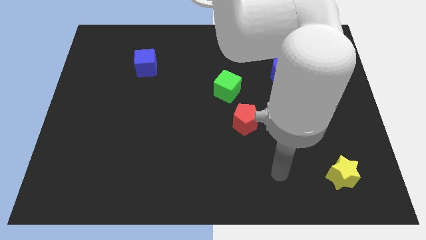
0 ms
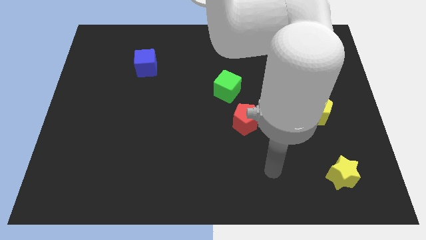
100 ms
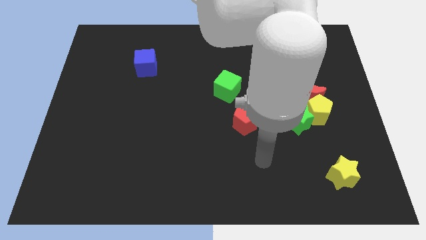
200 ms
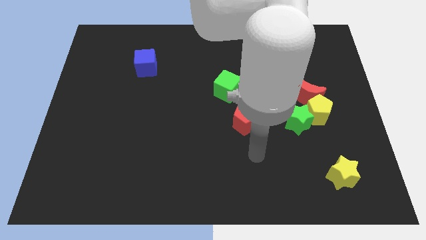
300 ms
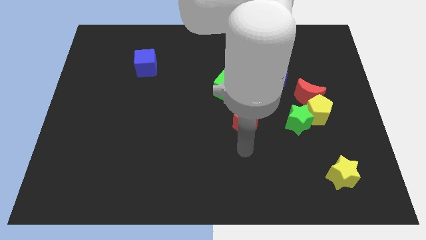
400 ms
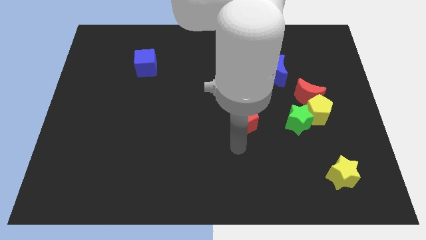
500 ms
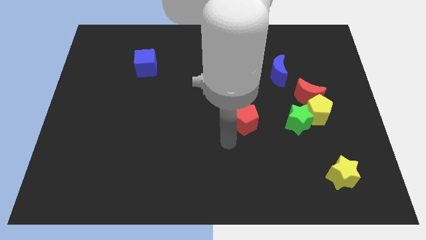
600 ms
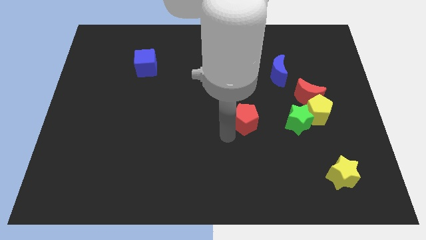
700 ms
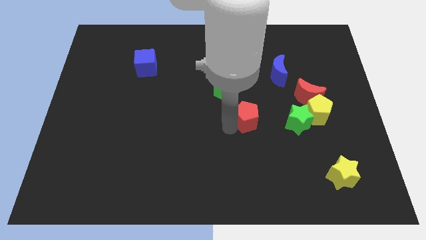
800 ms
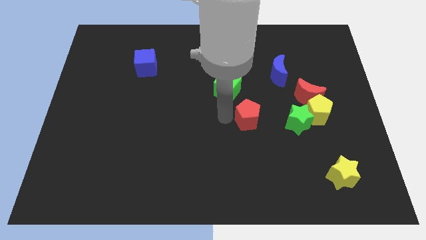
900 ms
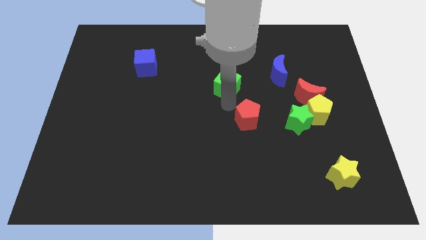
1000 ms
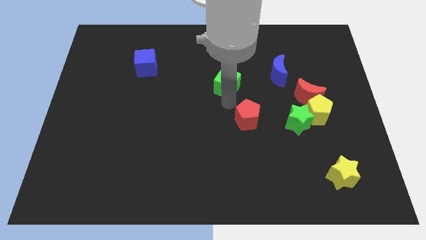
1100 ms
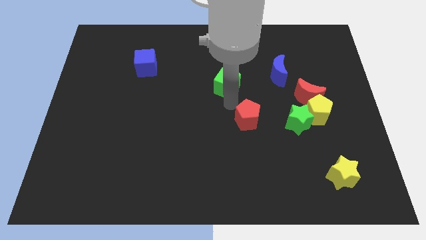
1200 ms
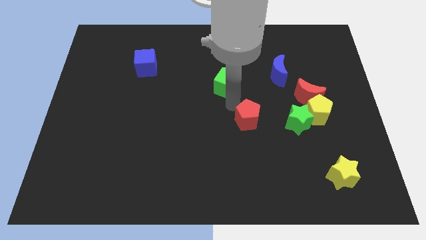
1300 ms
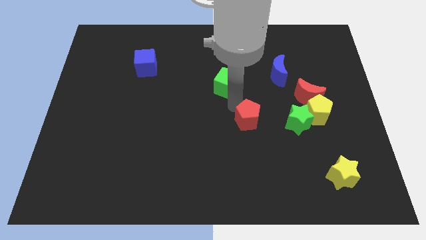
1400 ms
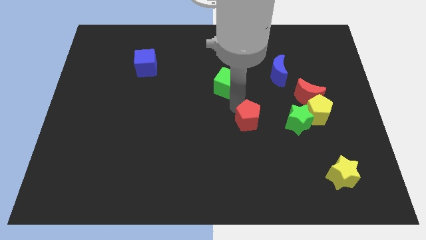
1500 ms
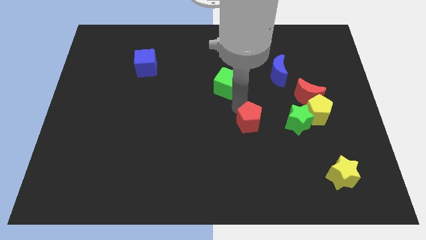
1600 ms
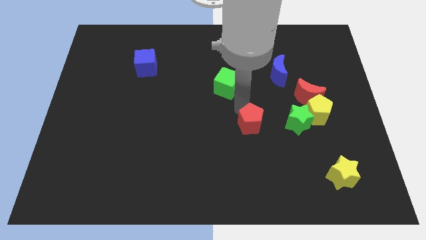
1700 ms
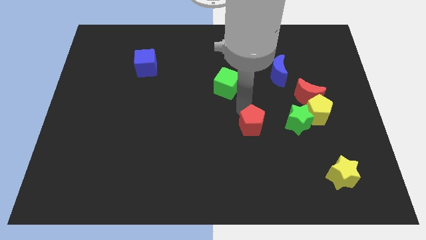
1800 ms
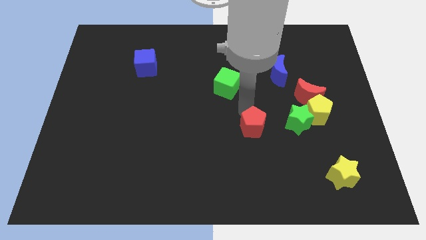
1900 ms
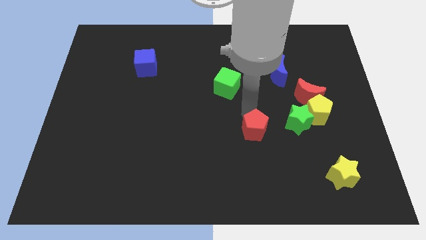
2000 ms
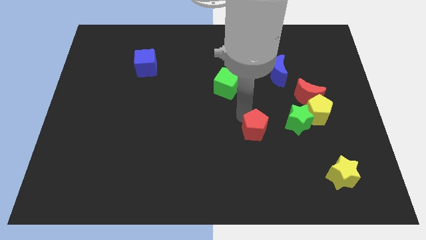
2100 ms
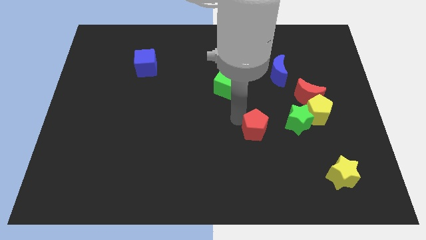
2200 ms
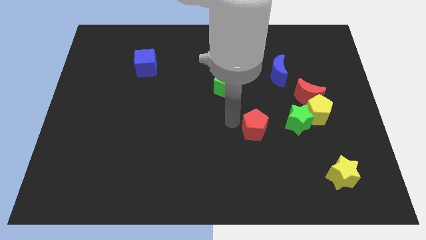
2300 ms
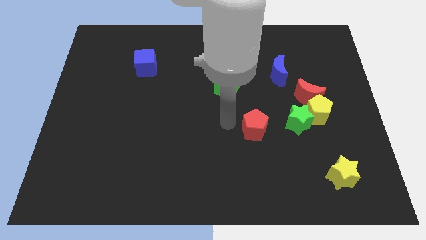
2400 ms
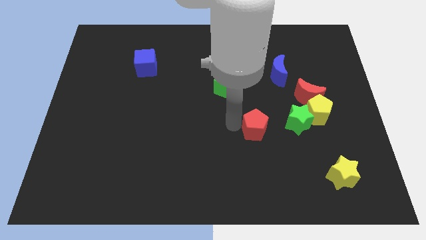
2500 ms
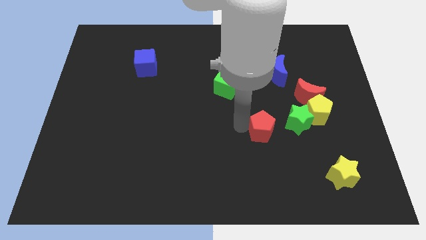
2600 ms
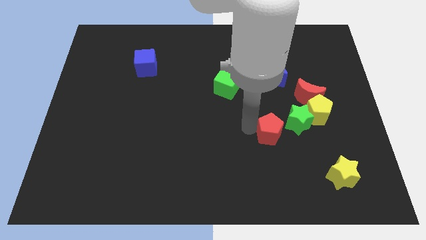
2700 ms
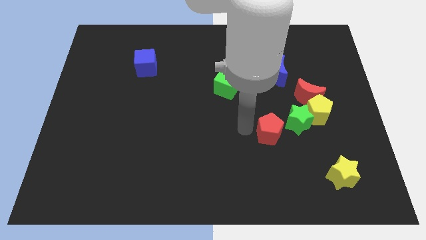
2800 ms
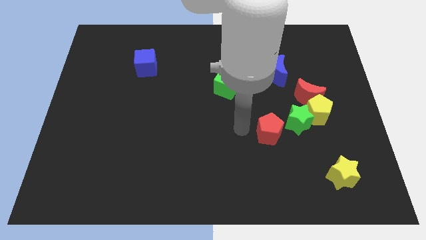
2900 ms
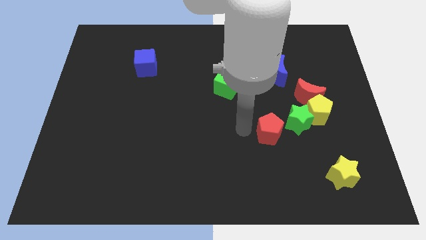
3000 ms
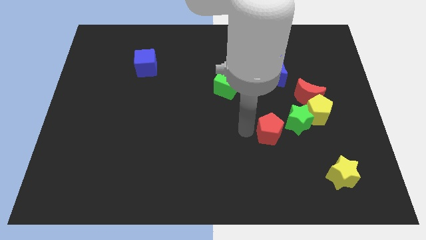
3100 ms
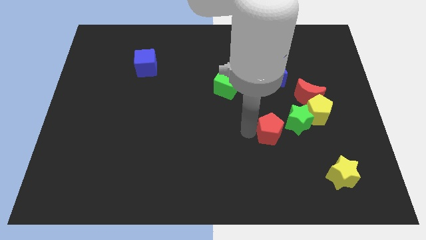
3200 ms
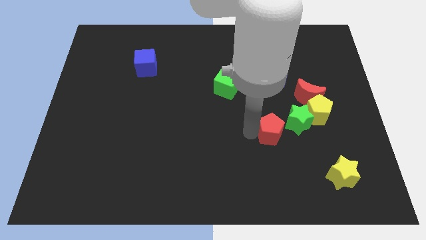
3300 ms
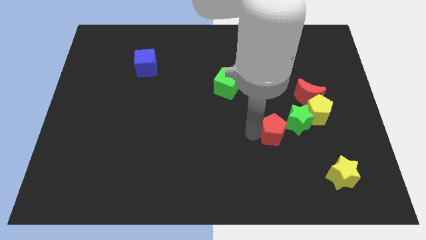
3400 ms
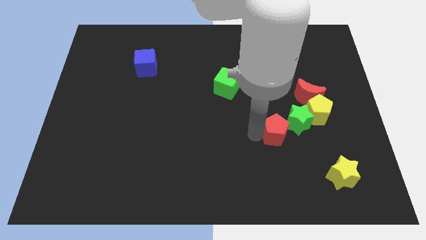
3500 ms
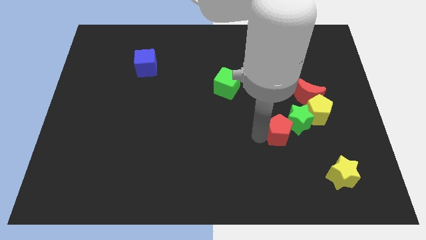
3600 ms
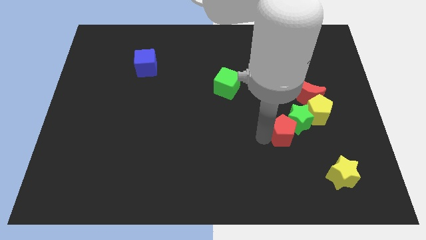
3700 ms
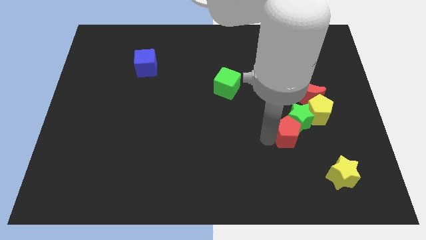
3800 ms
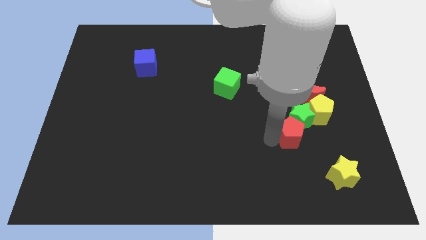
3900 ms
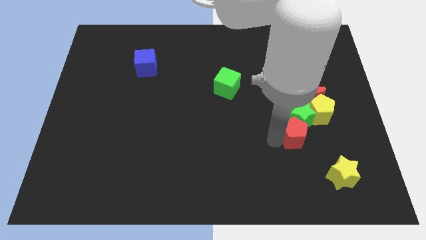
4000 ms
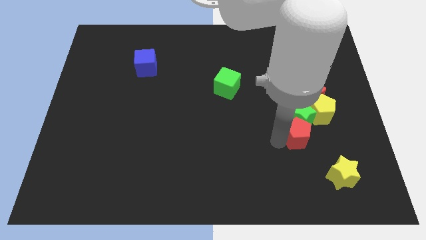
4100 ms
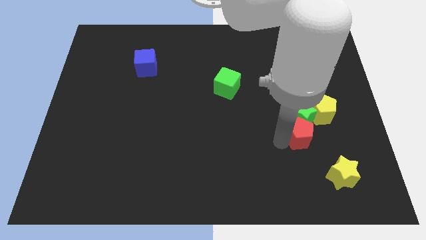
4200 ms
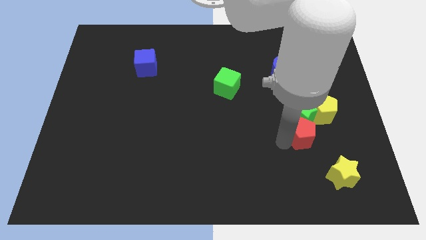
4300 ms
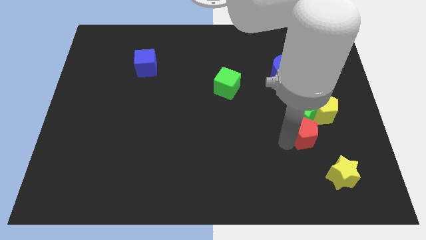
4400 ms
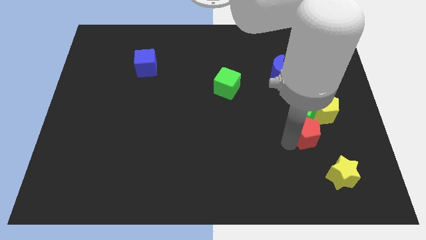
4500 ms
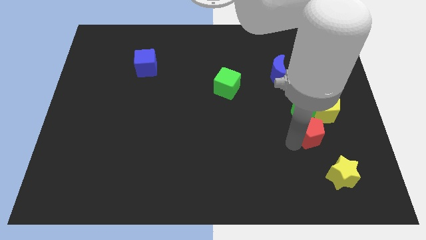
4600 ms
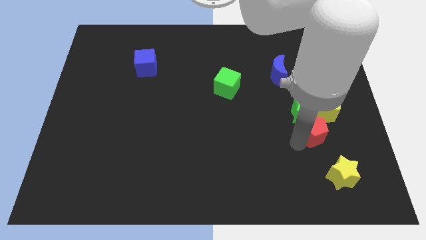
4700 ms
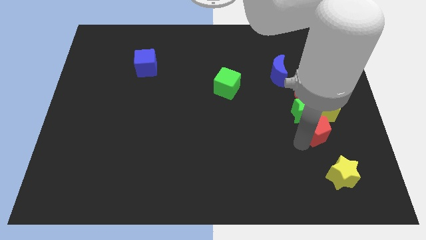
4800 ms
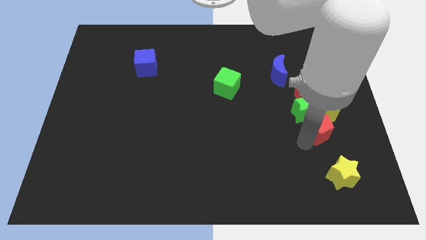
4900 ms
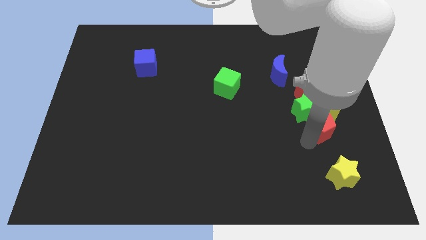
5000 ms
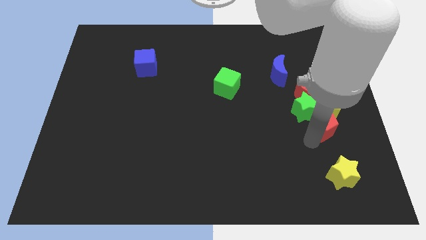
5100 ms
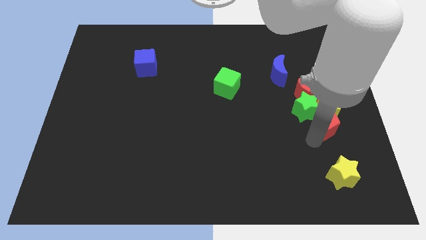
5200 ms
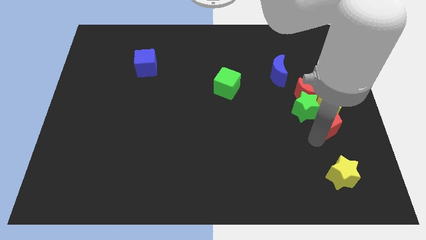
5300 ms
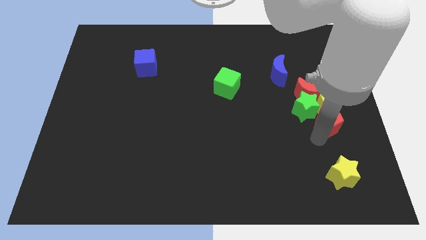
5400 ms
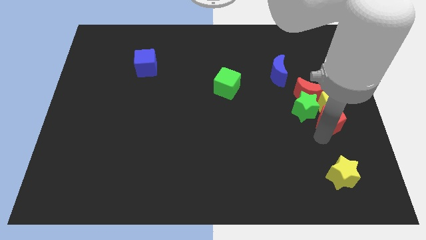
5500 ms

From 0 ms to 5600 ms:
put the red pentagon to the center right

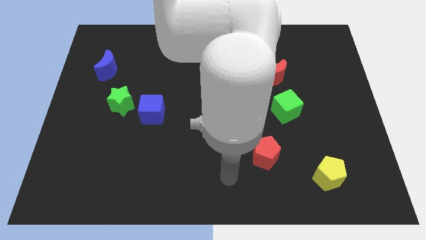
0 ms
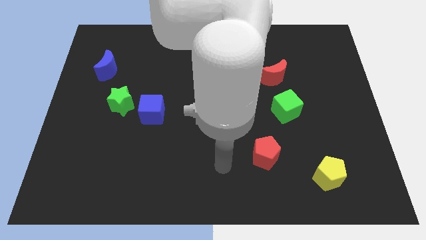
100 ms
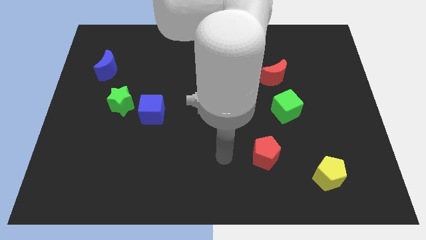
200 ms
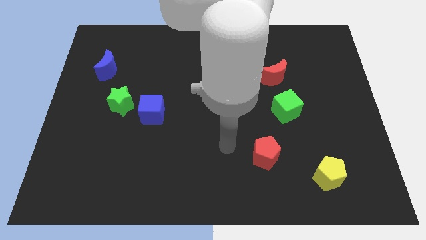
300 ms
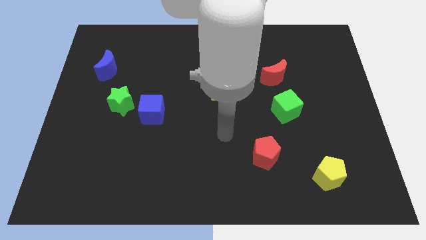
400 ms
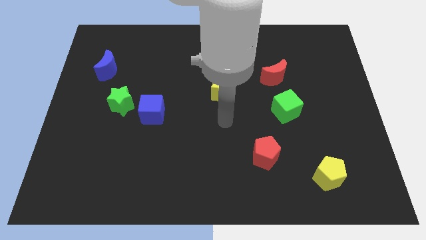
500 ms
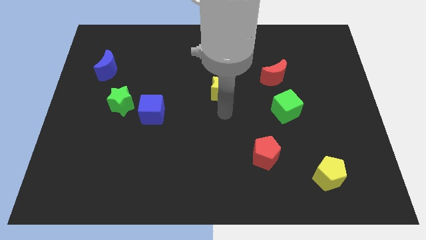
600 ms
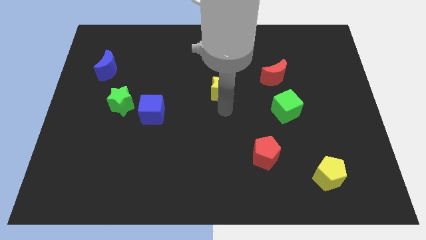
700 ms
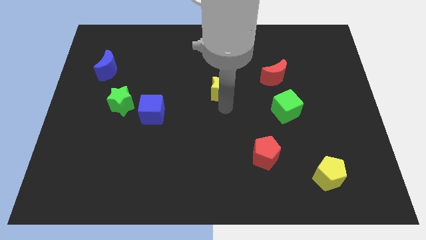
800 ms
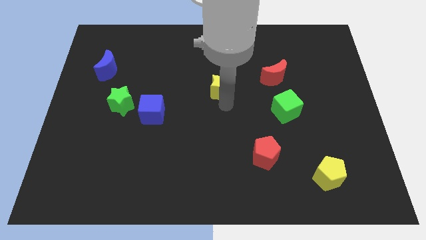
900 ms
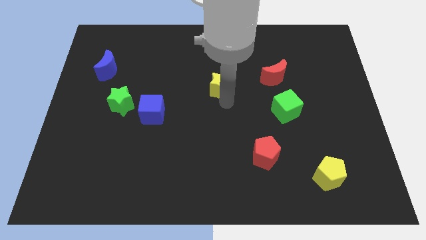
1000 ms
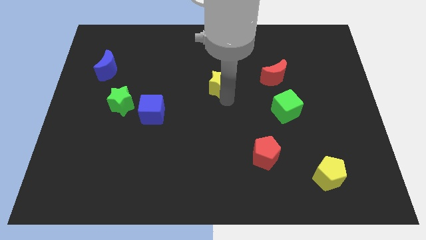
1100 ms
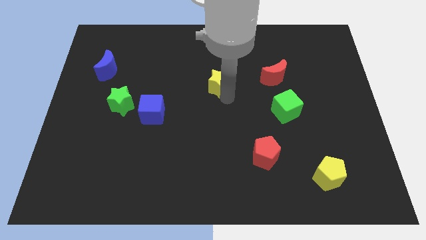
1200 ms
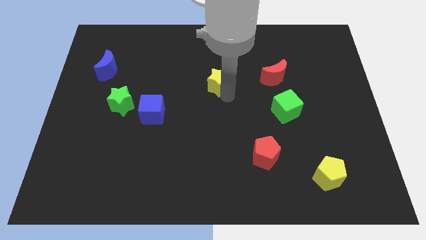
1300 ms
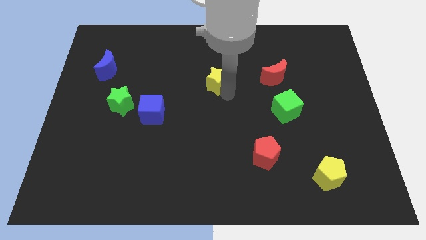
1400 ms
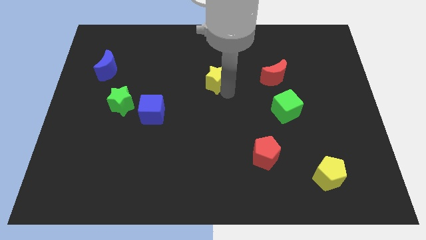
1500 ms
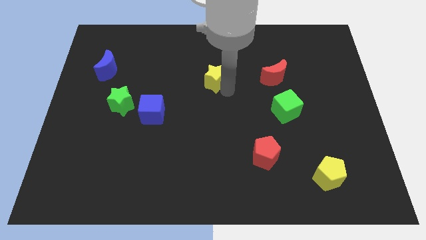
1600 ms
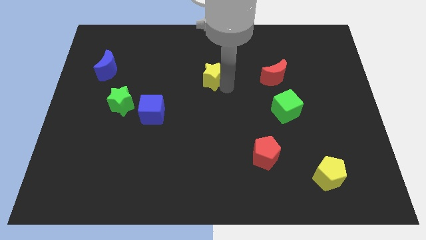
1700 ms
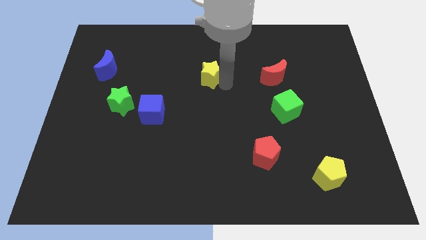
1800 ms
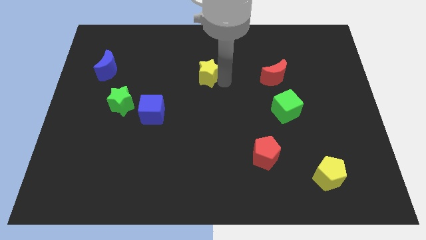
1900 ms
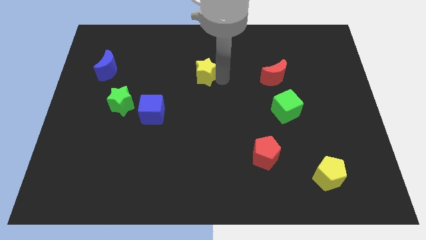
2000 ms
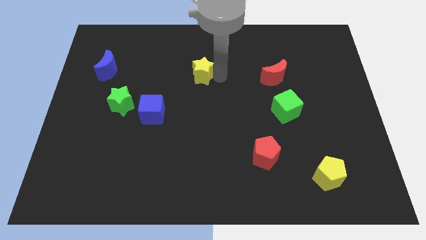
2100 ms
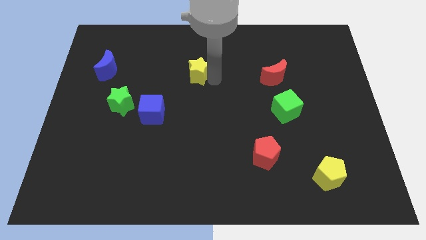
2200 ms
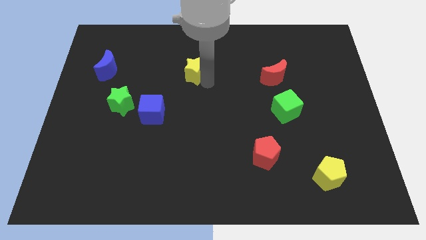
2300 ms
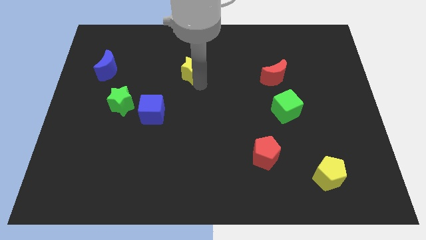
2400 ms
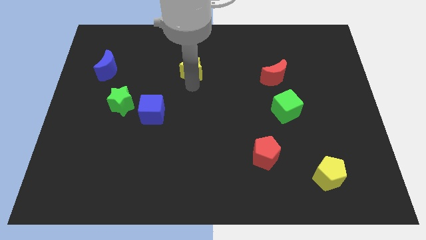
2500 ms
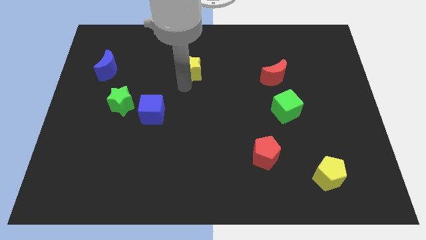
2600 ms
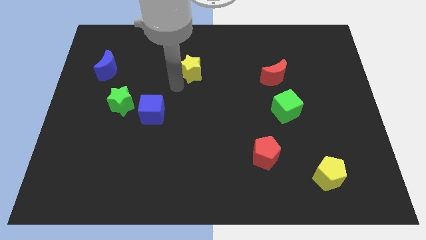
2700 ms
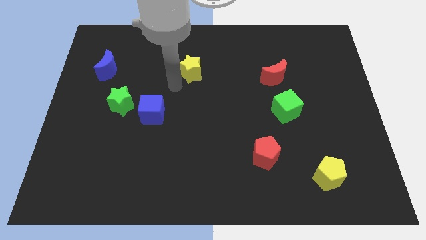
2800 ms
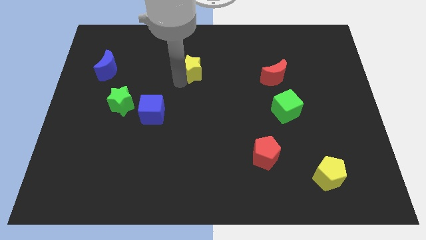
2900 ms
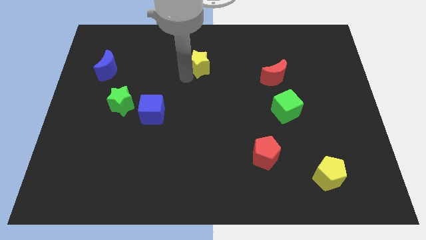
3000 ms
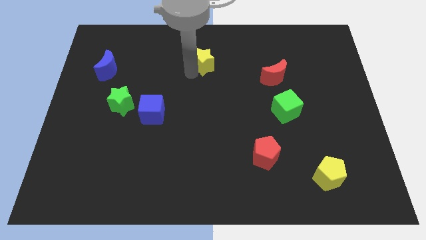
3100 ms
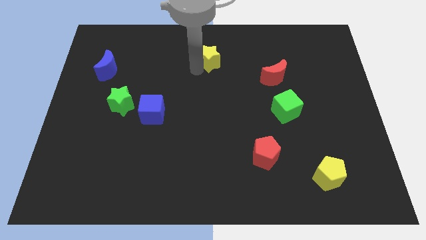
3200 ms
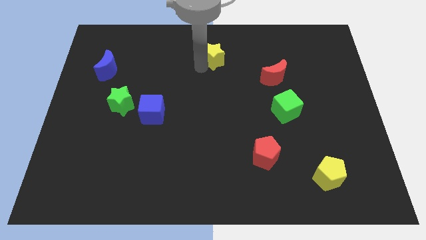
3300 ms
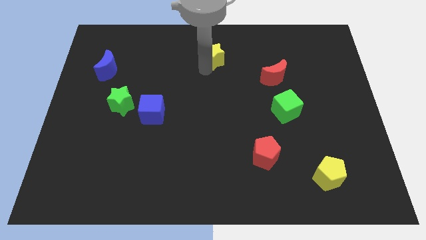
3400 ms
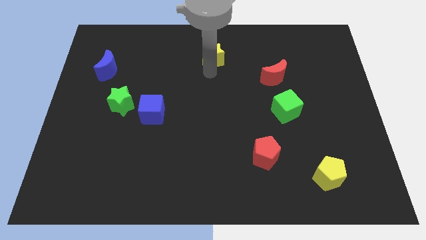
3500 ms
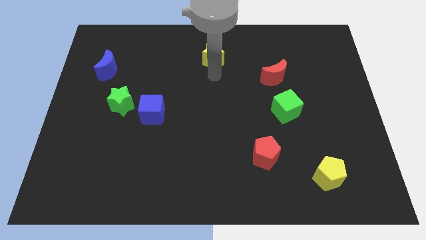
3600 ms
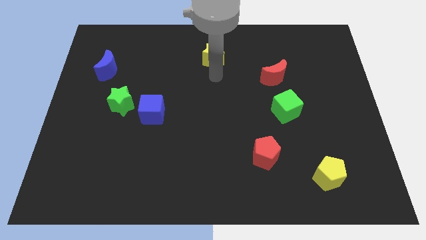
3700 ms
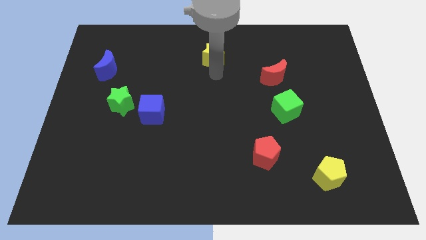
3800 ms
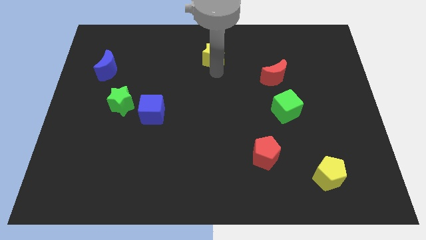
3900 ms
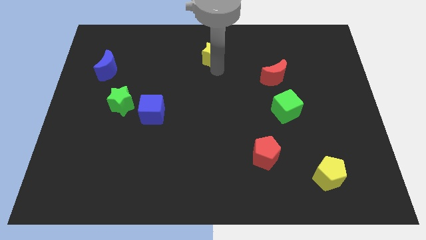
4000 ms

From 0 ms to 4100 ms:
push the yellow star to the top side
